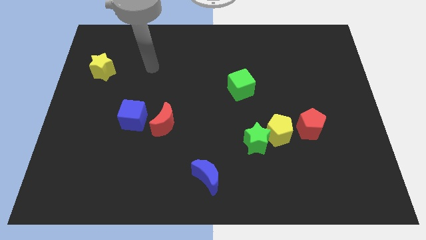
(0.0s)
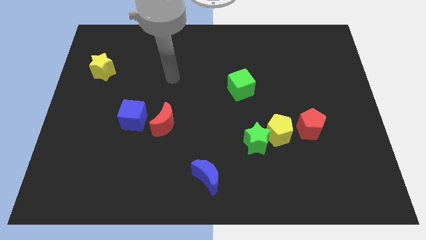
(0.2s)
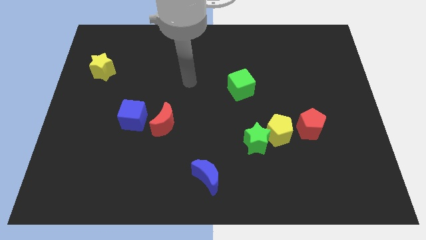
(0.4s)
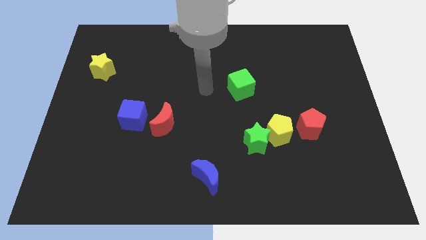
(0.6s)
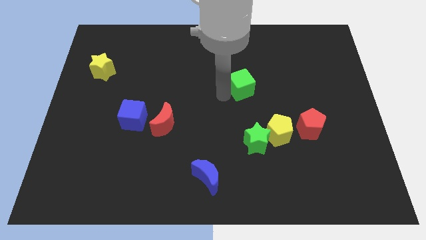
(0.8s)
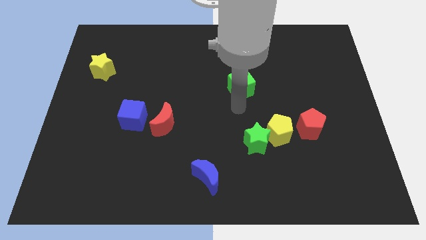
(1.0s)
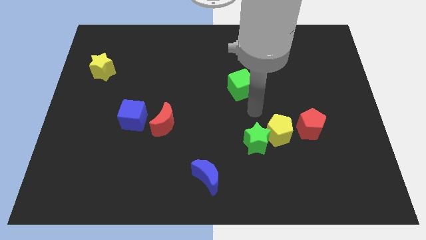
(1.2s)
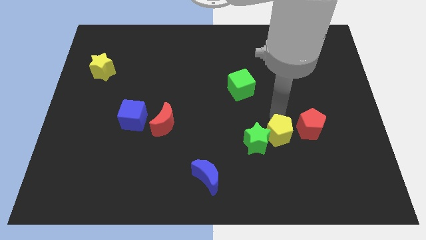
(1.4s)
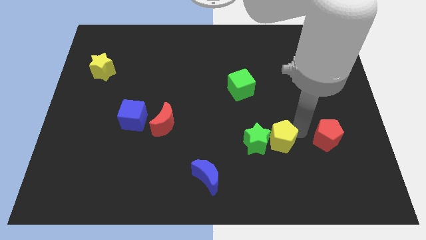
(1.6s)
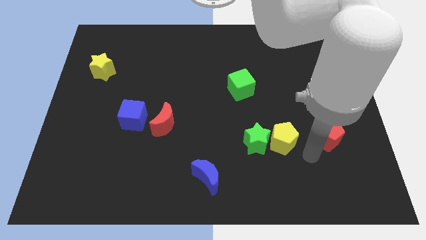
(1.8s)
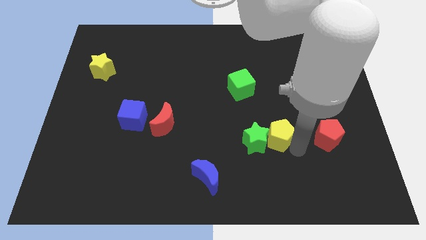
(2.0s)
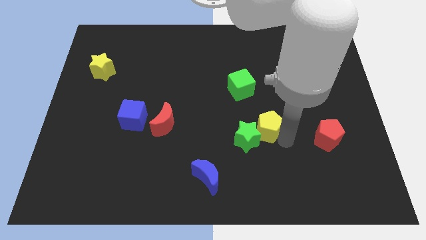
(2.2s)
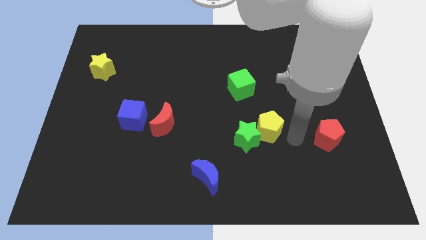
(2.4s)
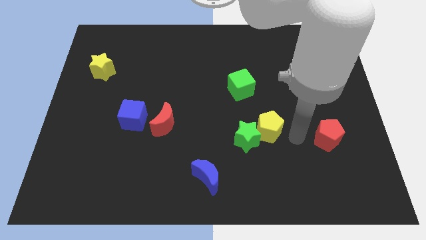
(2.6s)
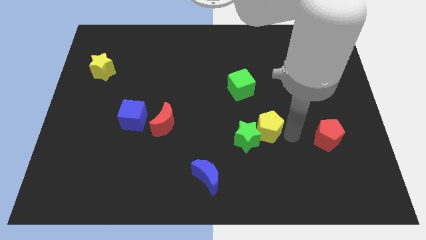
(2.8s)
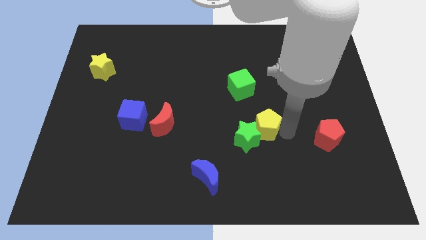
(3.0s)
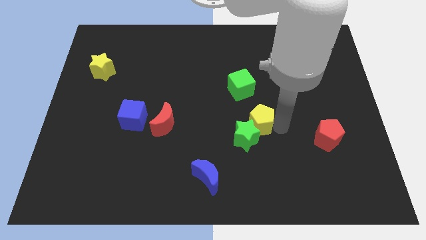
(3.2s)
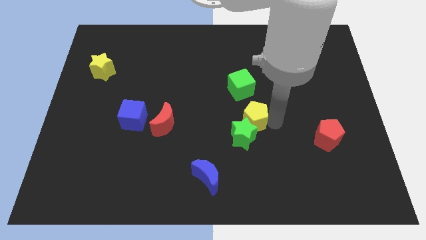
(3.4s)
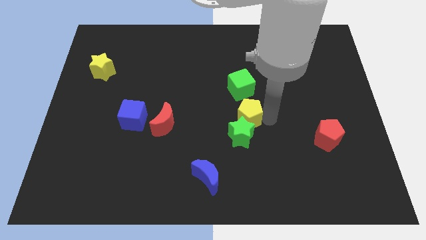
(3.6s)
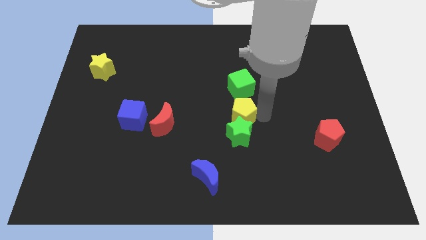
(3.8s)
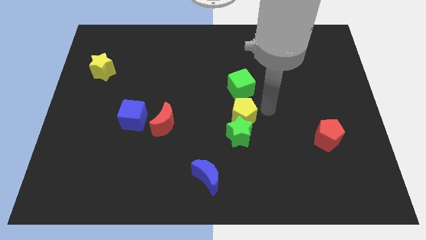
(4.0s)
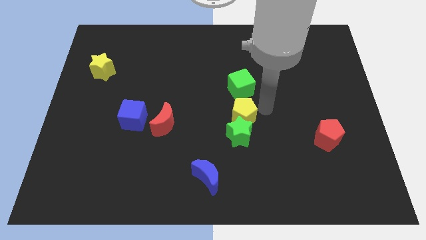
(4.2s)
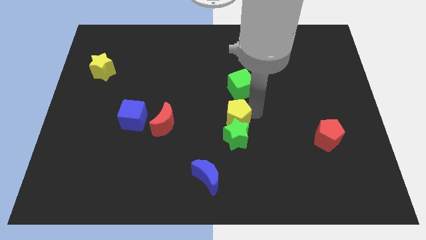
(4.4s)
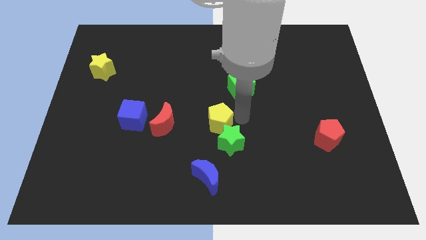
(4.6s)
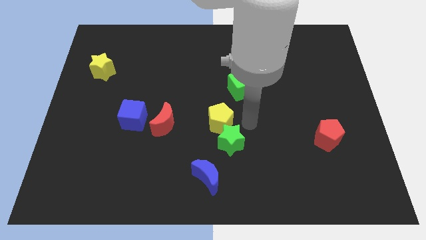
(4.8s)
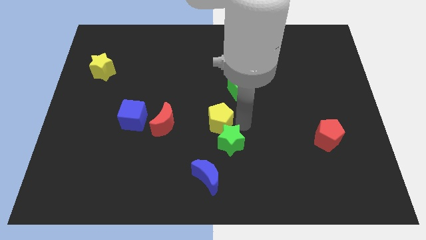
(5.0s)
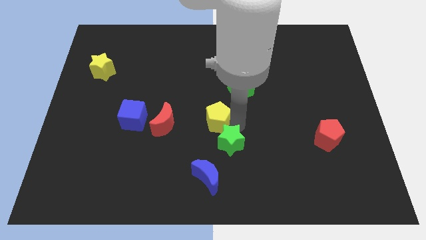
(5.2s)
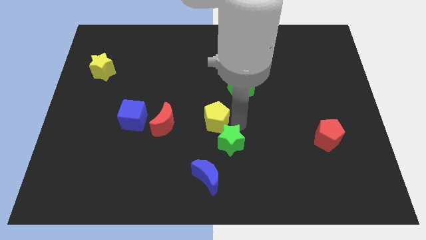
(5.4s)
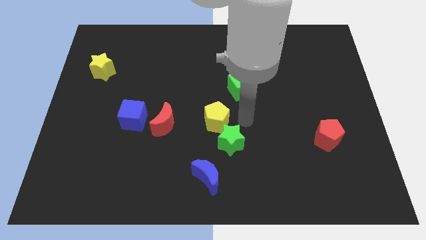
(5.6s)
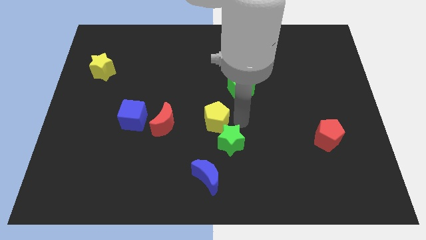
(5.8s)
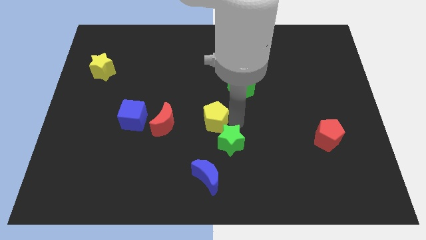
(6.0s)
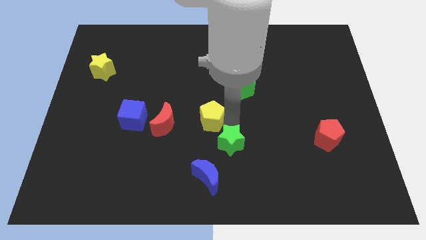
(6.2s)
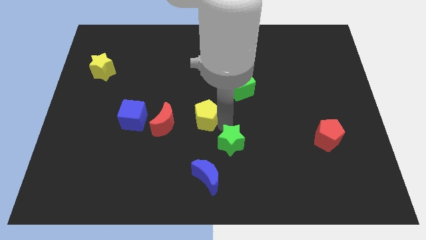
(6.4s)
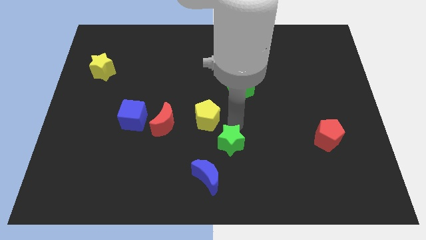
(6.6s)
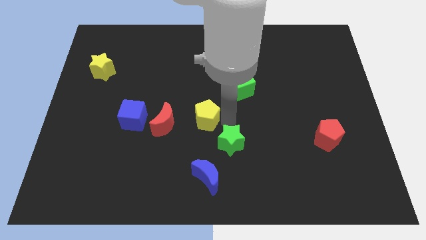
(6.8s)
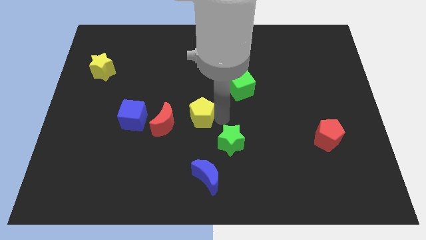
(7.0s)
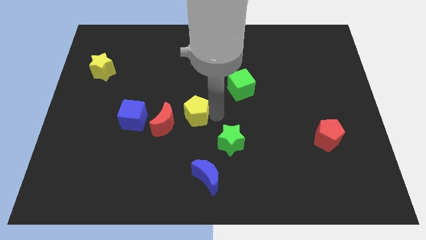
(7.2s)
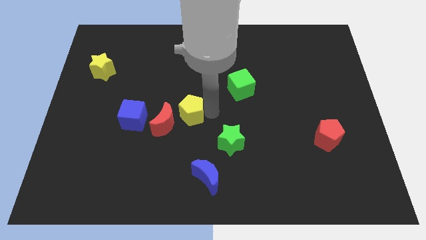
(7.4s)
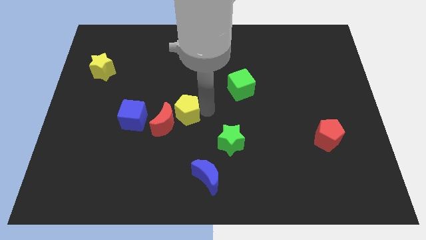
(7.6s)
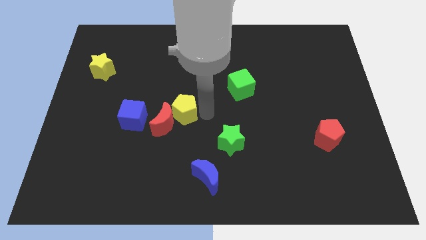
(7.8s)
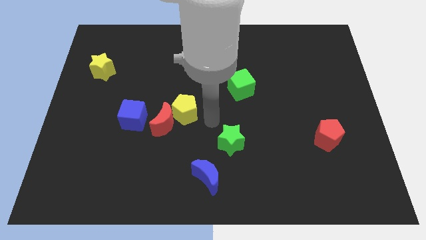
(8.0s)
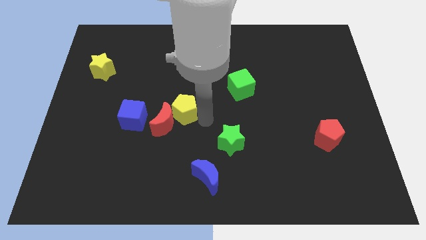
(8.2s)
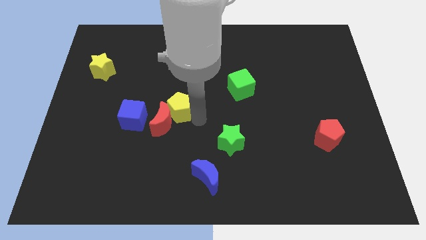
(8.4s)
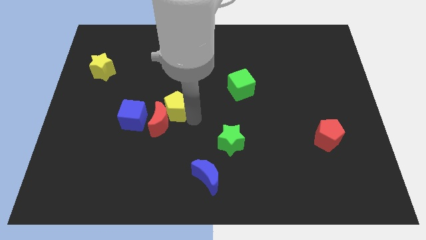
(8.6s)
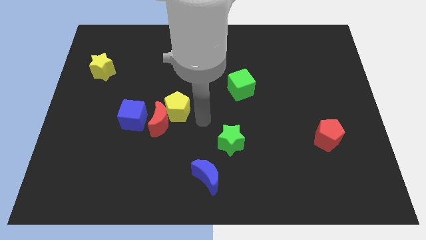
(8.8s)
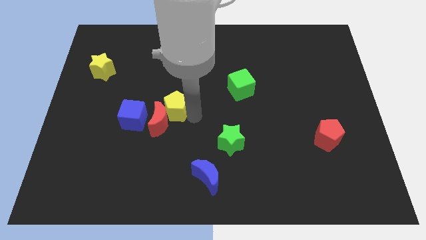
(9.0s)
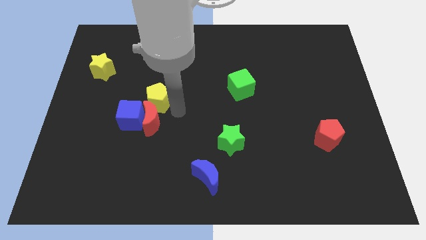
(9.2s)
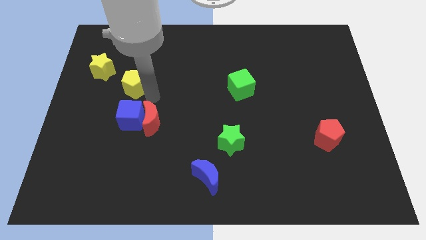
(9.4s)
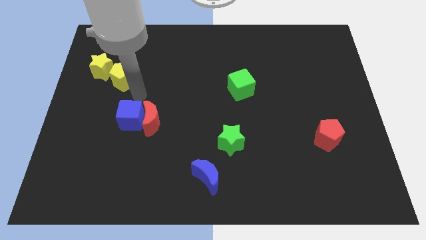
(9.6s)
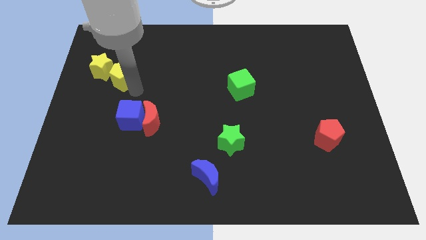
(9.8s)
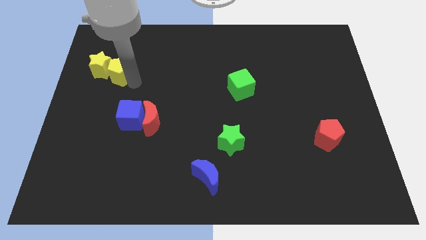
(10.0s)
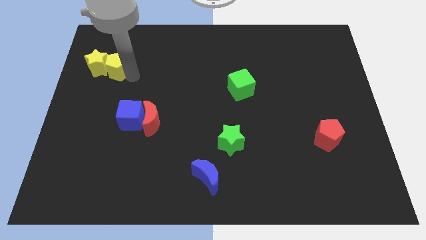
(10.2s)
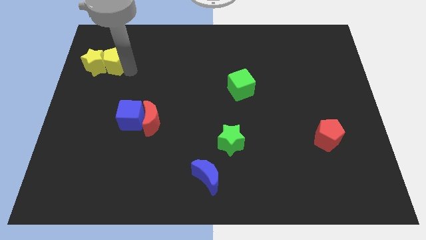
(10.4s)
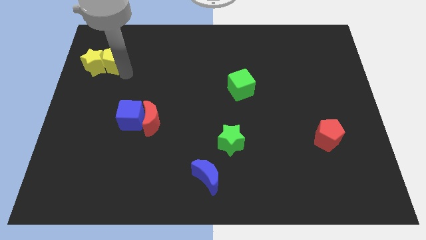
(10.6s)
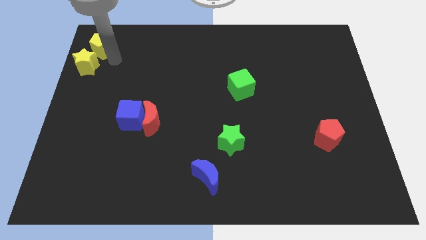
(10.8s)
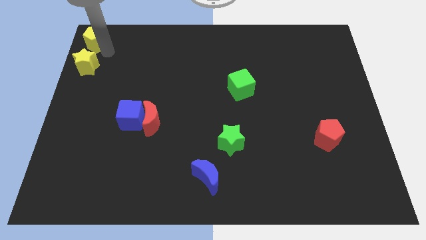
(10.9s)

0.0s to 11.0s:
put the yellow pentagon to the upper left corner
